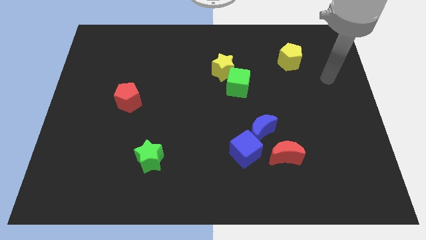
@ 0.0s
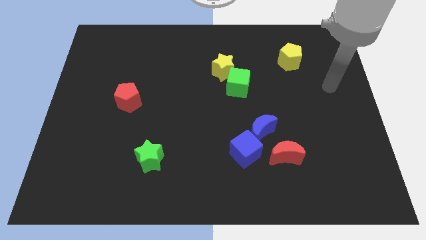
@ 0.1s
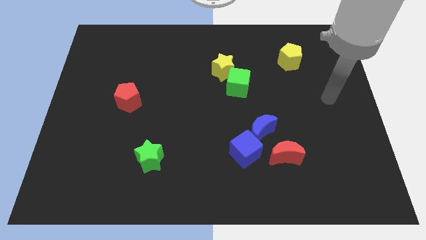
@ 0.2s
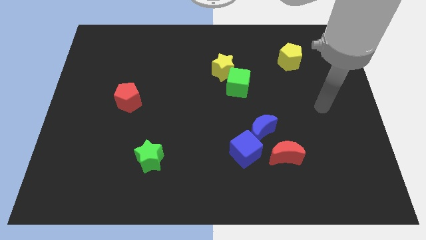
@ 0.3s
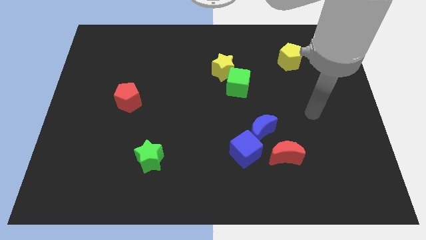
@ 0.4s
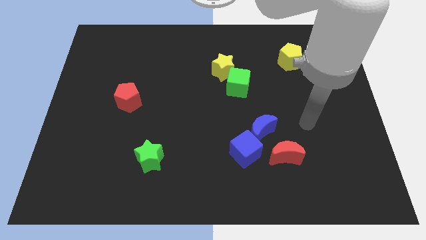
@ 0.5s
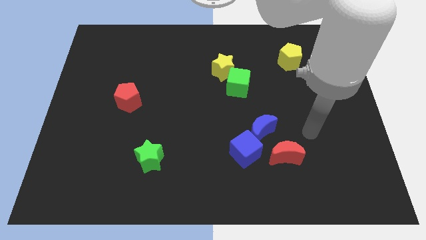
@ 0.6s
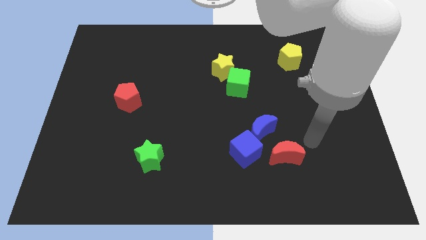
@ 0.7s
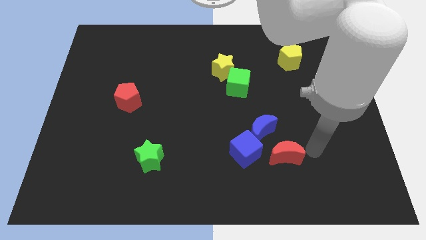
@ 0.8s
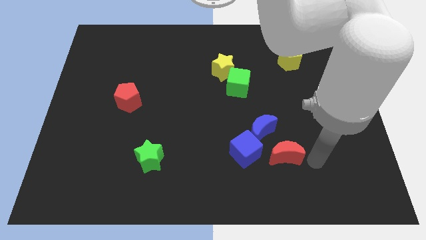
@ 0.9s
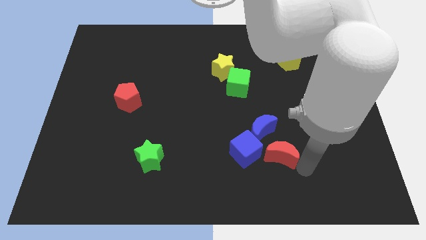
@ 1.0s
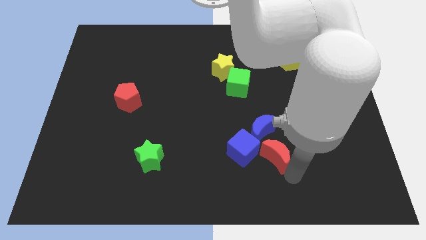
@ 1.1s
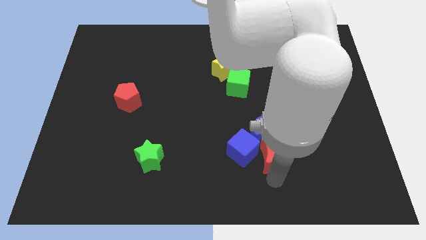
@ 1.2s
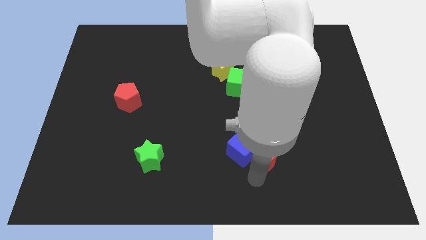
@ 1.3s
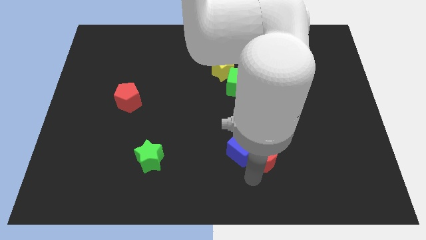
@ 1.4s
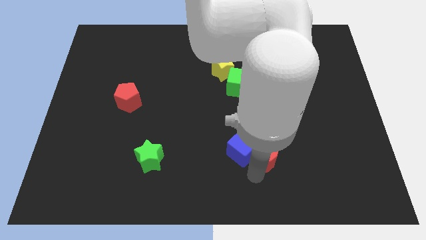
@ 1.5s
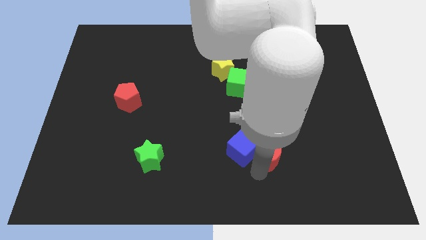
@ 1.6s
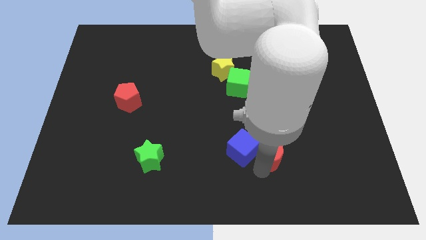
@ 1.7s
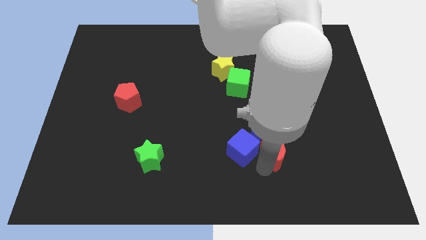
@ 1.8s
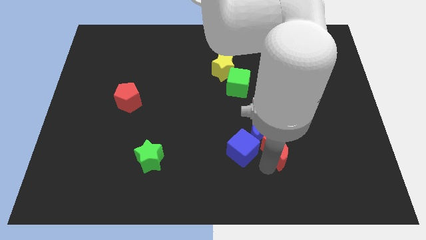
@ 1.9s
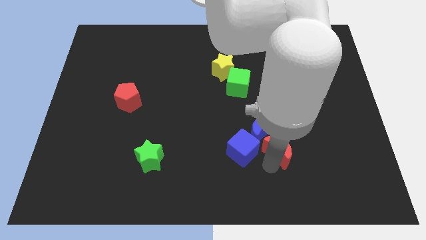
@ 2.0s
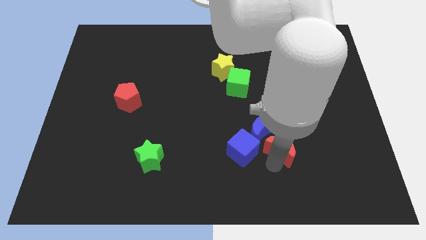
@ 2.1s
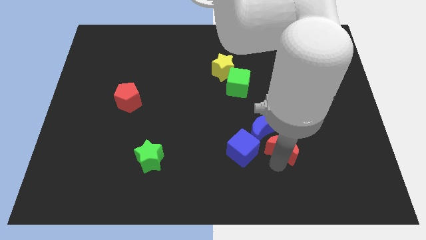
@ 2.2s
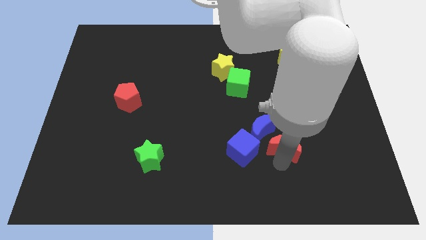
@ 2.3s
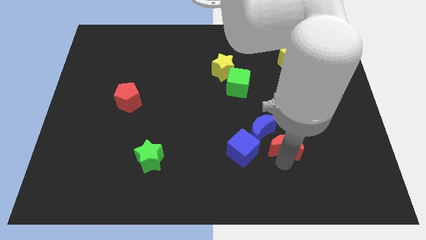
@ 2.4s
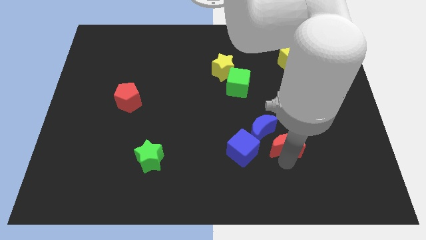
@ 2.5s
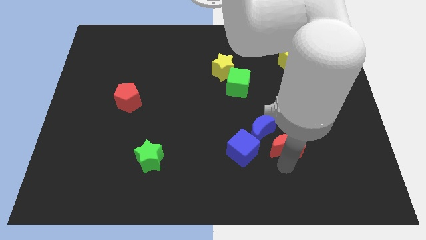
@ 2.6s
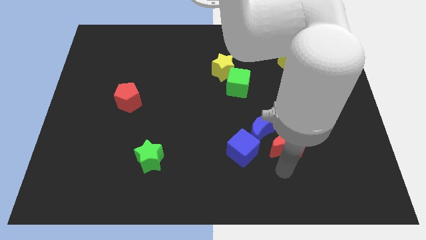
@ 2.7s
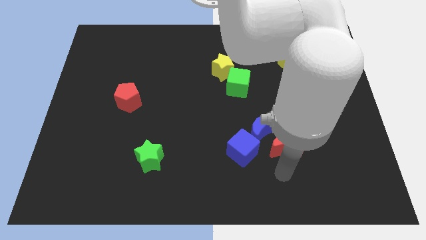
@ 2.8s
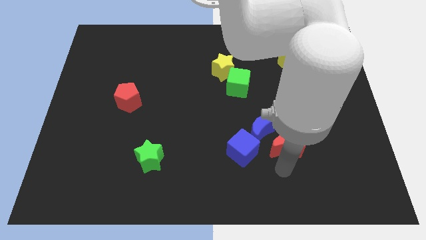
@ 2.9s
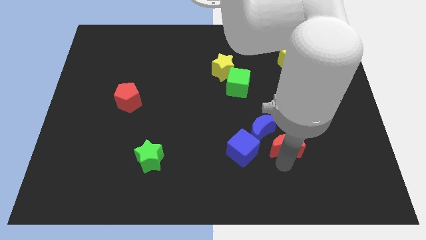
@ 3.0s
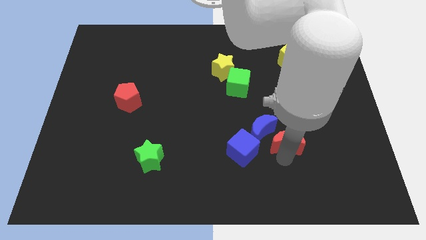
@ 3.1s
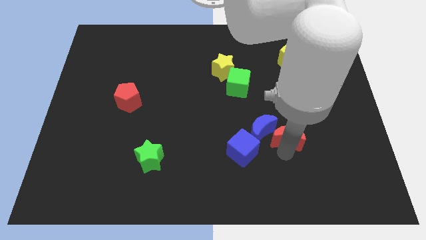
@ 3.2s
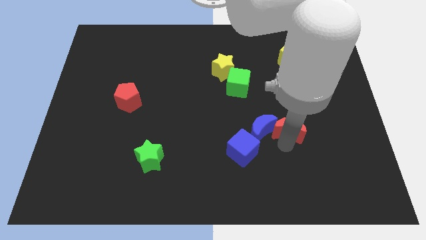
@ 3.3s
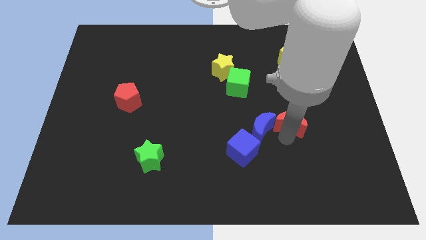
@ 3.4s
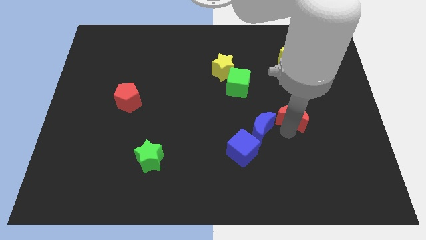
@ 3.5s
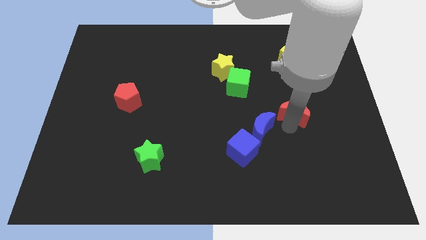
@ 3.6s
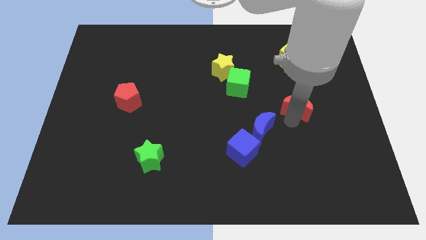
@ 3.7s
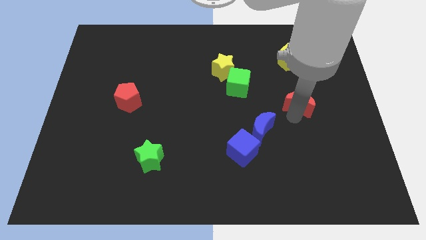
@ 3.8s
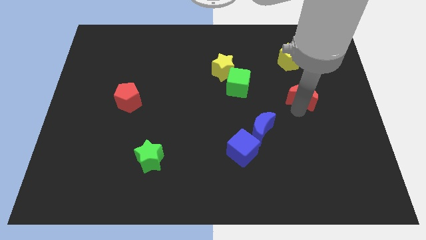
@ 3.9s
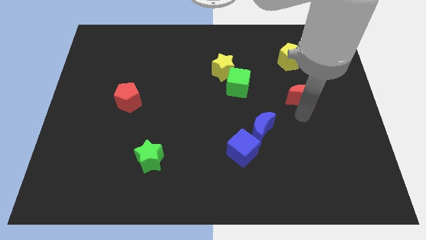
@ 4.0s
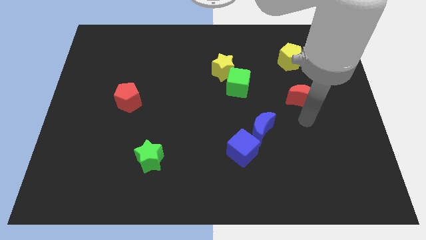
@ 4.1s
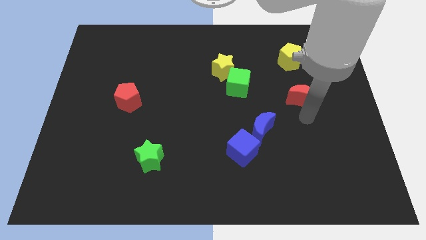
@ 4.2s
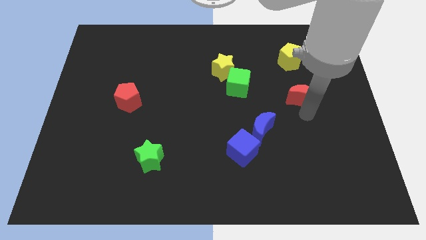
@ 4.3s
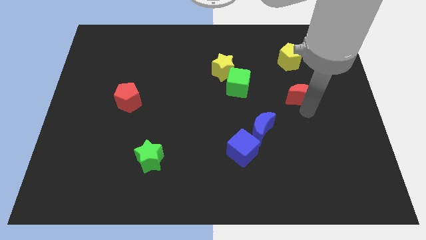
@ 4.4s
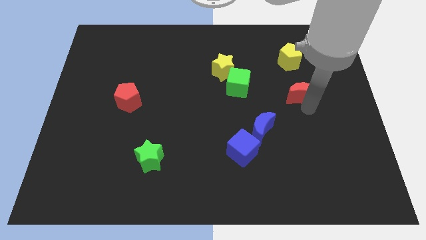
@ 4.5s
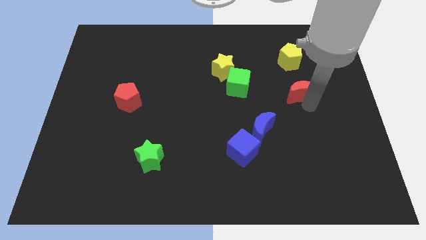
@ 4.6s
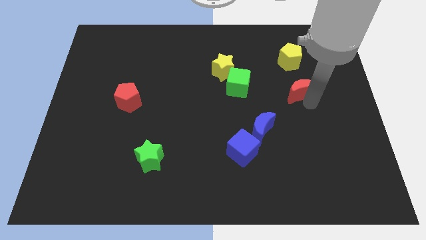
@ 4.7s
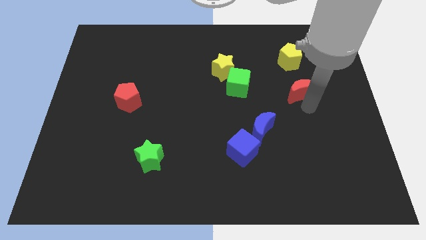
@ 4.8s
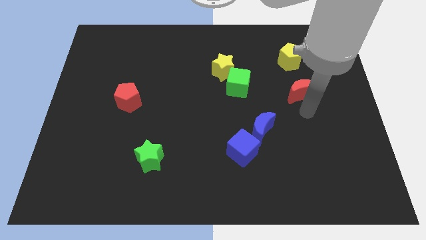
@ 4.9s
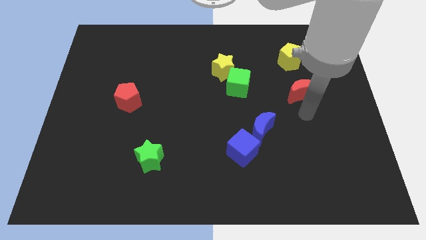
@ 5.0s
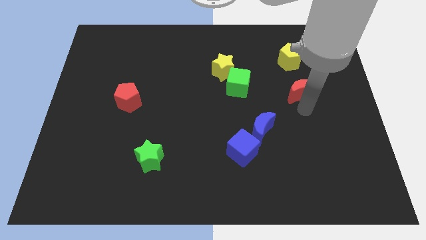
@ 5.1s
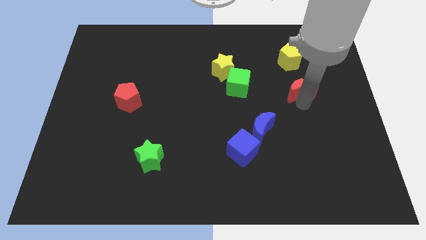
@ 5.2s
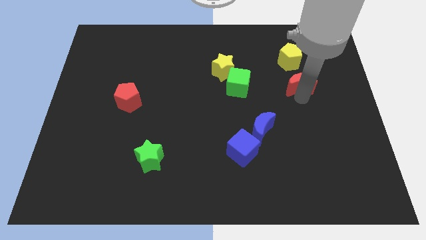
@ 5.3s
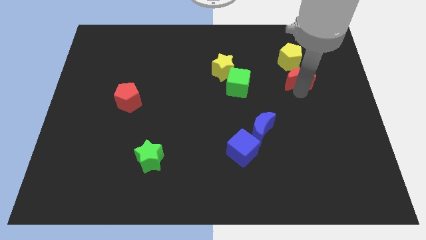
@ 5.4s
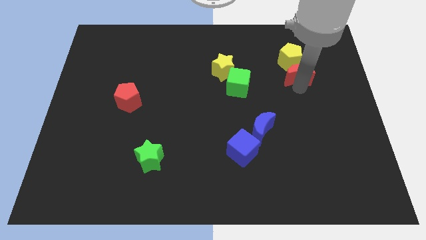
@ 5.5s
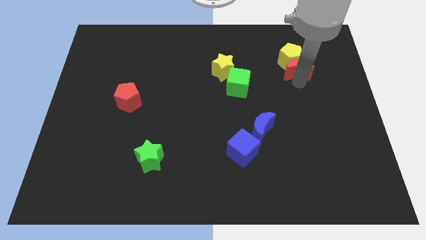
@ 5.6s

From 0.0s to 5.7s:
move the red moon to the yellow pentagon

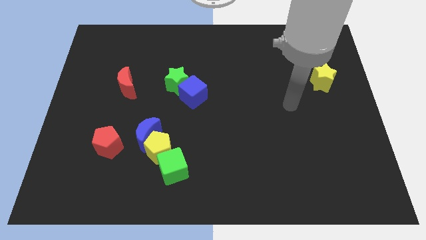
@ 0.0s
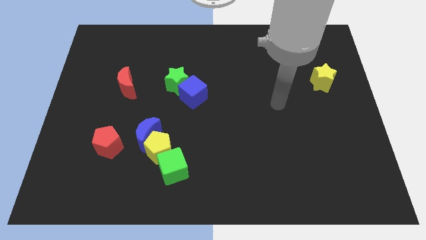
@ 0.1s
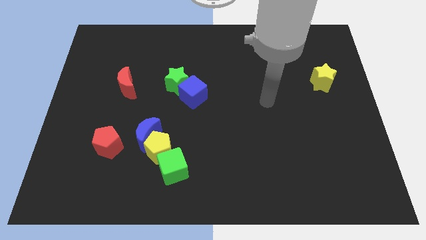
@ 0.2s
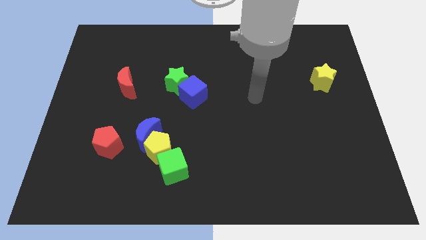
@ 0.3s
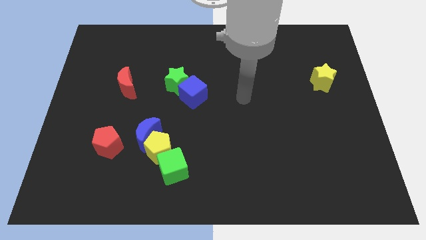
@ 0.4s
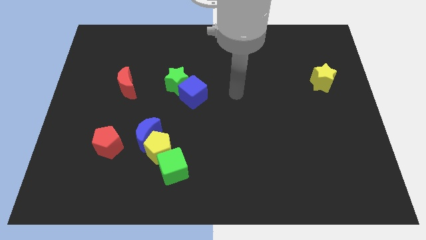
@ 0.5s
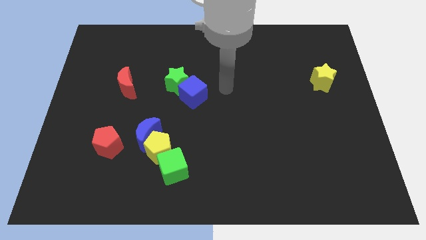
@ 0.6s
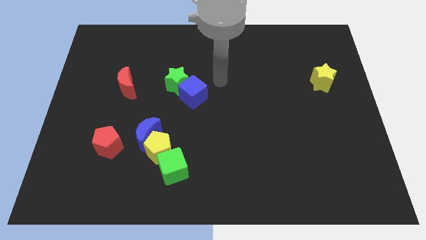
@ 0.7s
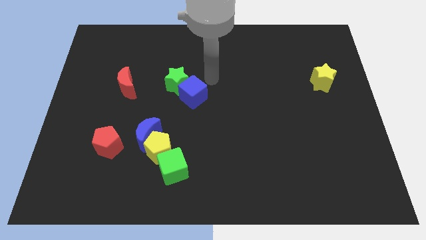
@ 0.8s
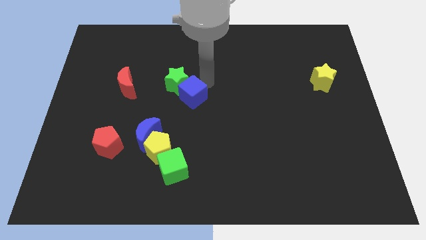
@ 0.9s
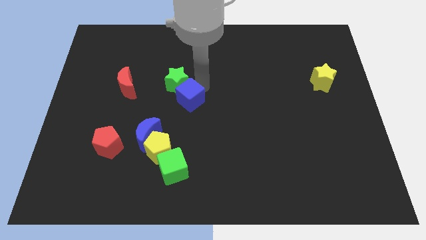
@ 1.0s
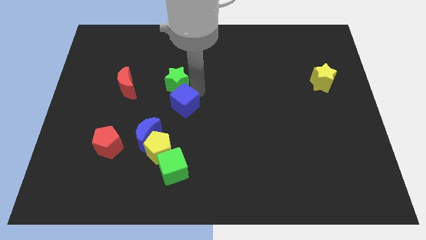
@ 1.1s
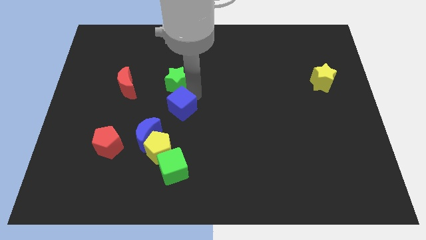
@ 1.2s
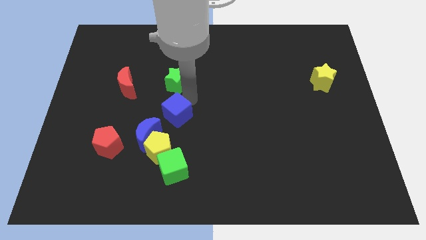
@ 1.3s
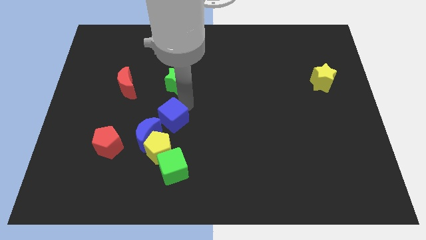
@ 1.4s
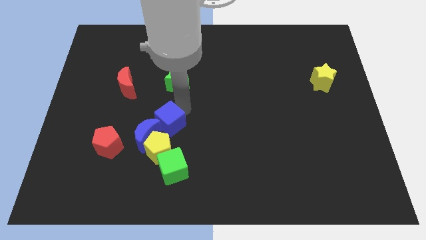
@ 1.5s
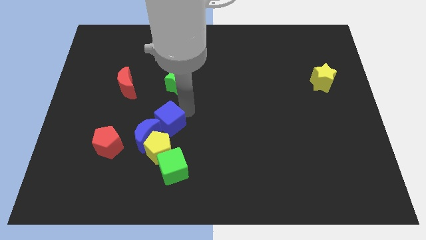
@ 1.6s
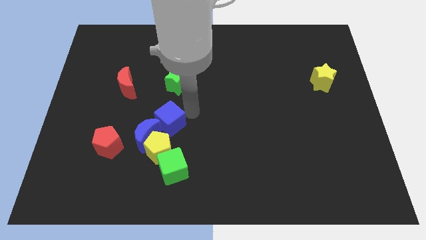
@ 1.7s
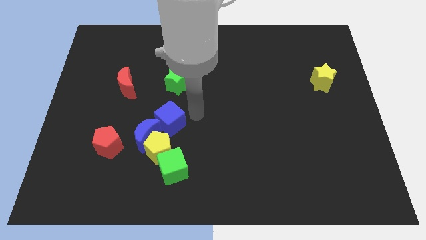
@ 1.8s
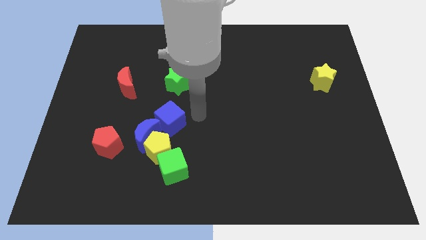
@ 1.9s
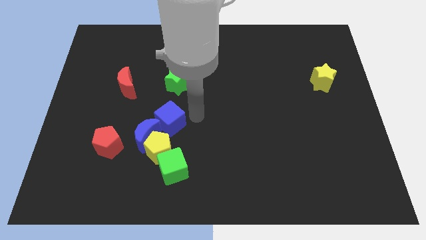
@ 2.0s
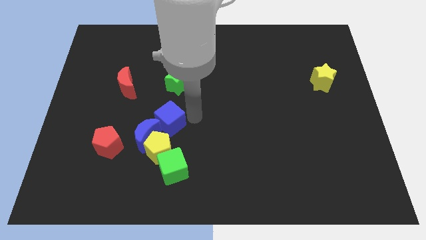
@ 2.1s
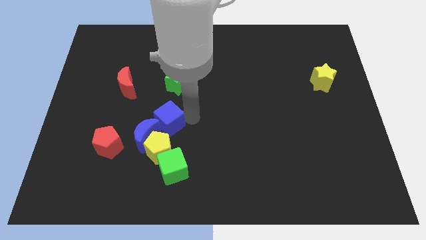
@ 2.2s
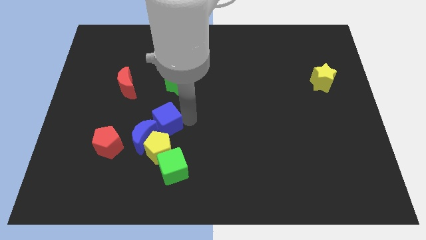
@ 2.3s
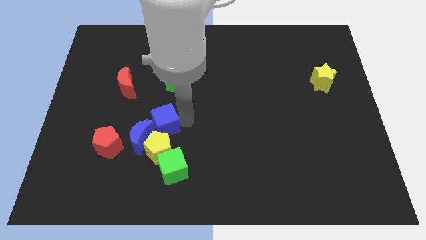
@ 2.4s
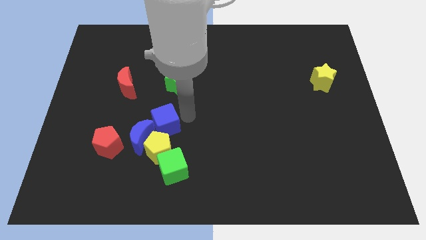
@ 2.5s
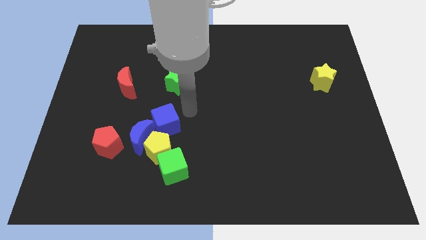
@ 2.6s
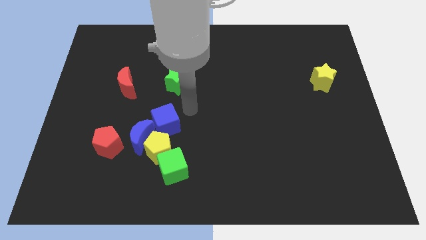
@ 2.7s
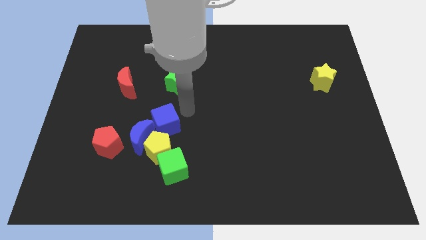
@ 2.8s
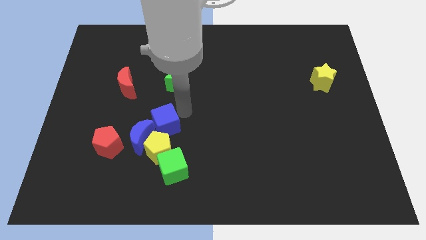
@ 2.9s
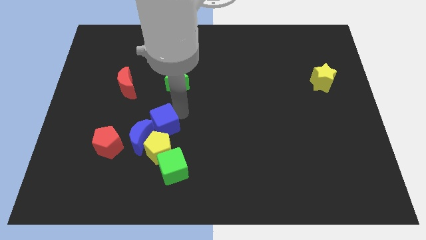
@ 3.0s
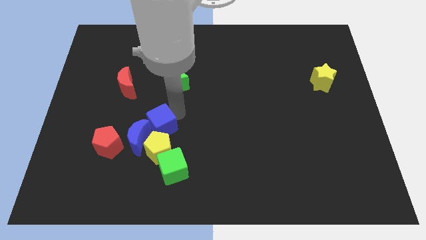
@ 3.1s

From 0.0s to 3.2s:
slide the blue cube close to the blue moon
